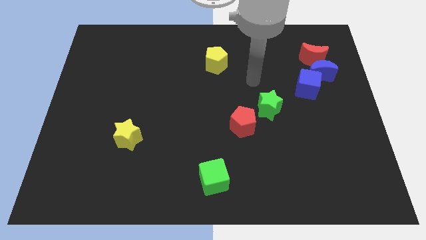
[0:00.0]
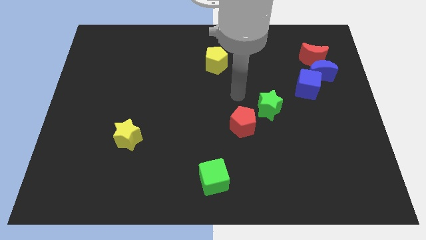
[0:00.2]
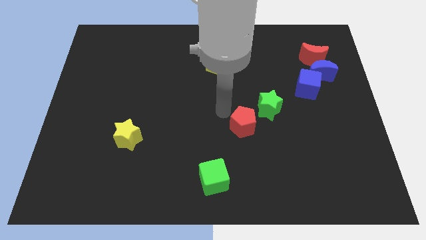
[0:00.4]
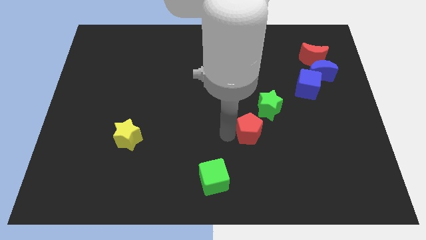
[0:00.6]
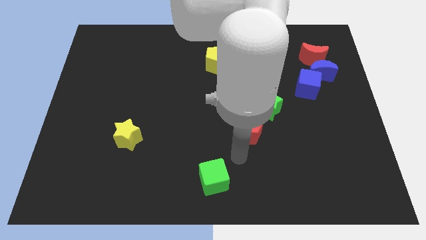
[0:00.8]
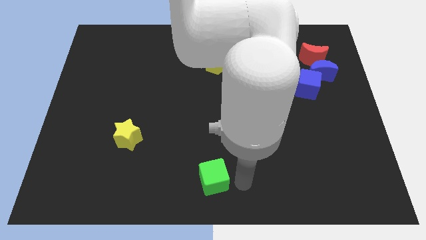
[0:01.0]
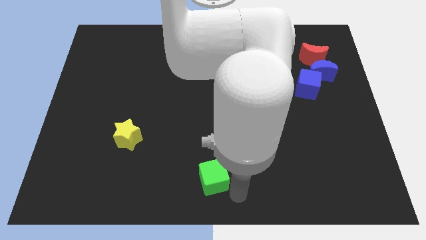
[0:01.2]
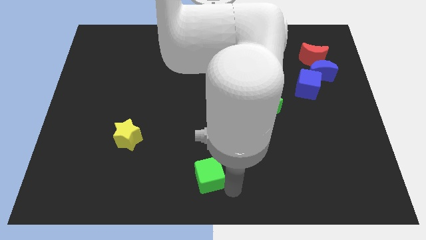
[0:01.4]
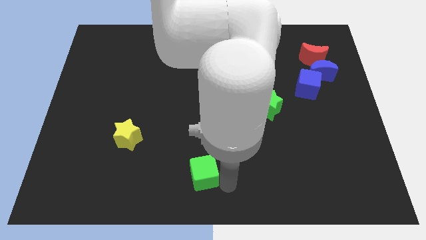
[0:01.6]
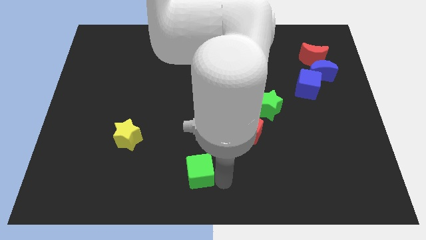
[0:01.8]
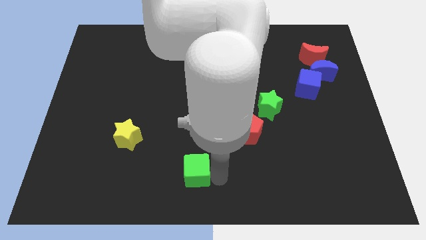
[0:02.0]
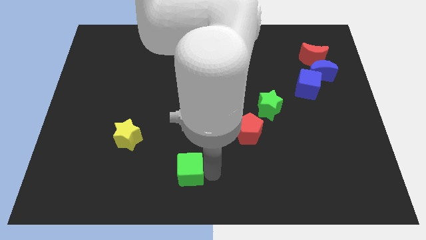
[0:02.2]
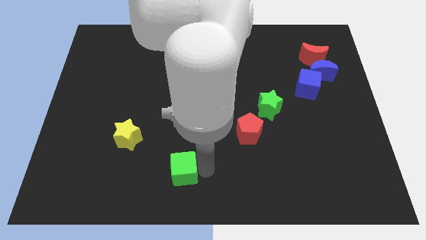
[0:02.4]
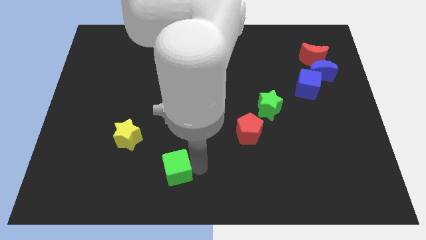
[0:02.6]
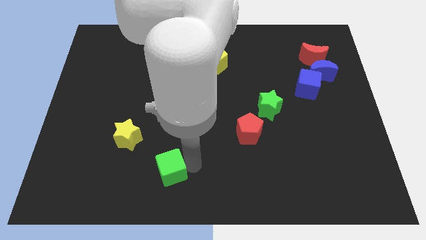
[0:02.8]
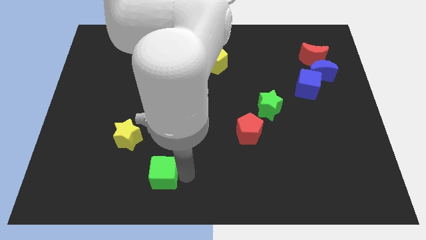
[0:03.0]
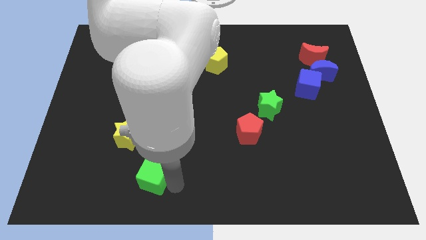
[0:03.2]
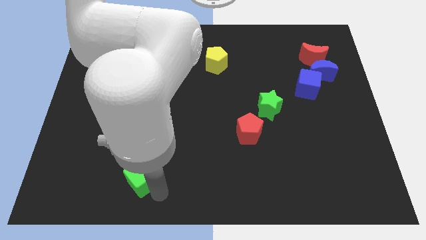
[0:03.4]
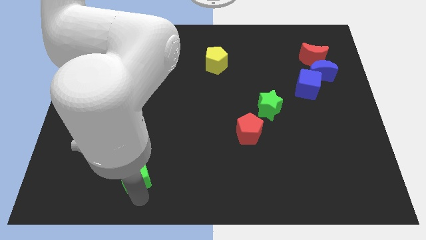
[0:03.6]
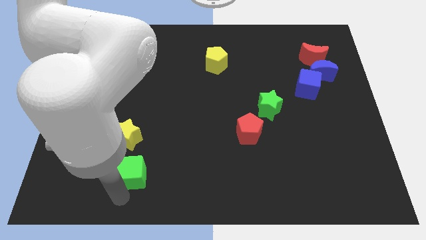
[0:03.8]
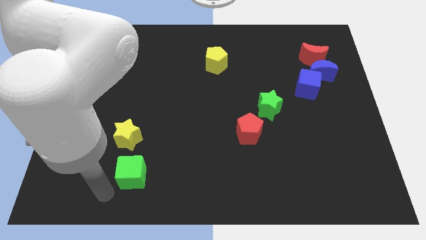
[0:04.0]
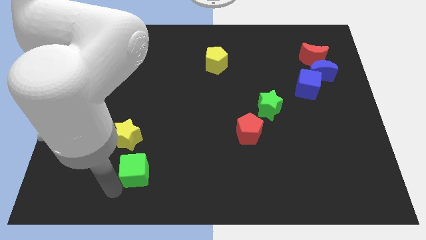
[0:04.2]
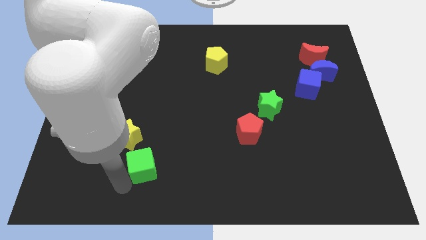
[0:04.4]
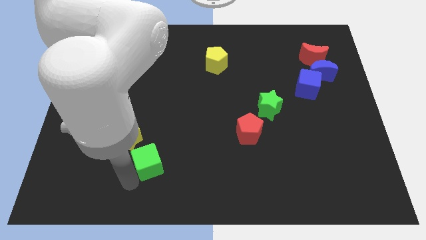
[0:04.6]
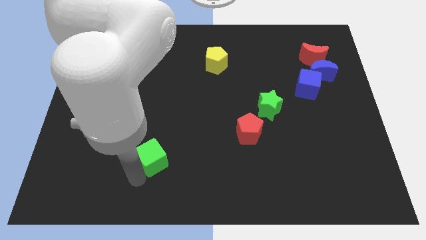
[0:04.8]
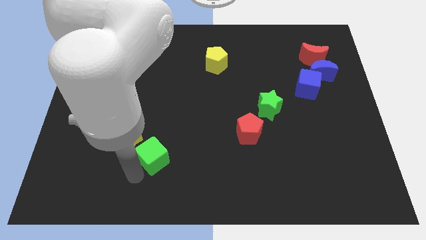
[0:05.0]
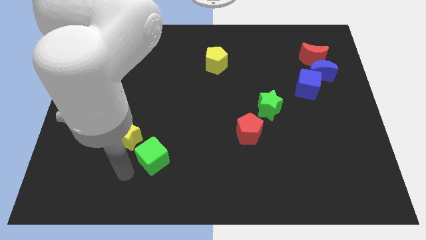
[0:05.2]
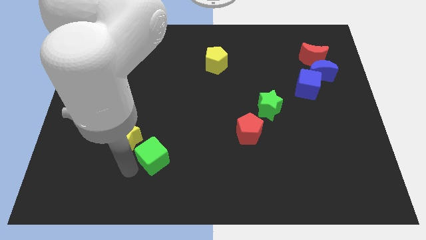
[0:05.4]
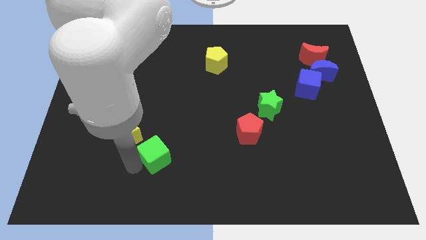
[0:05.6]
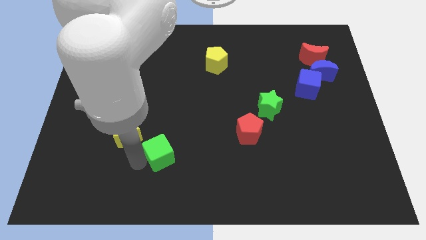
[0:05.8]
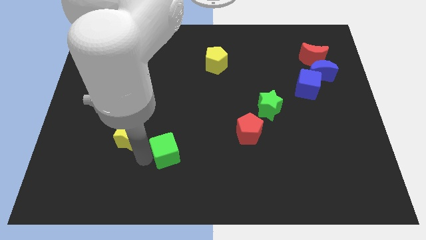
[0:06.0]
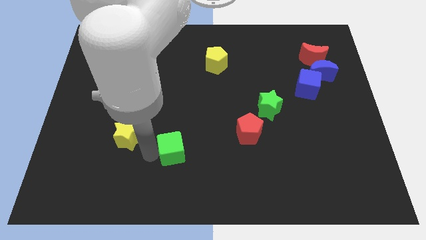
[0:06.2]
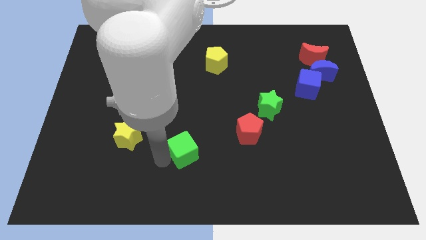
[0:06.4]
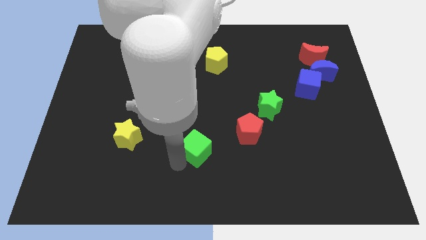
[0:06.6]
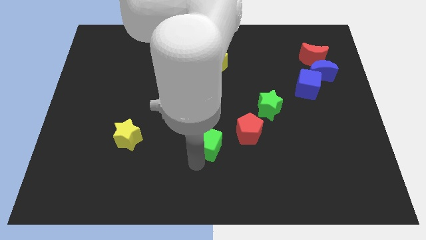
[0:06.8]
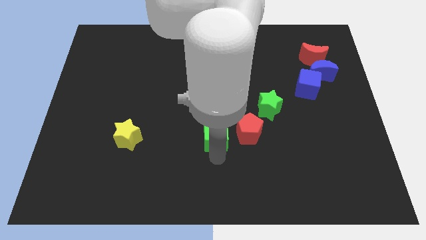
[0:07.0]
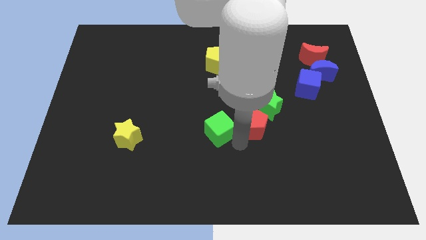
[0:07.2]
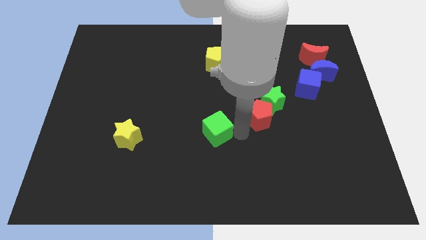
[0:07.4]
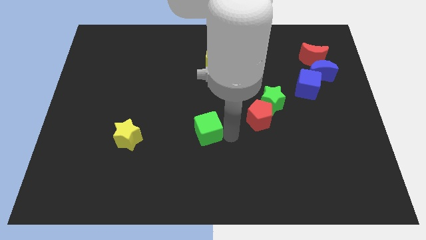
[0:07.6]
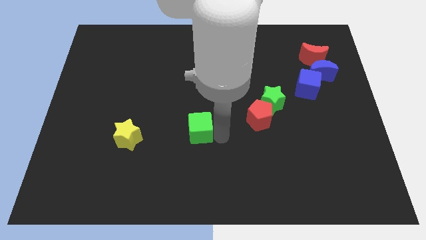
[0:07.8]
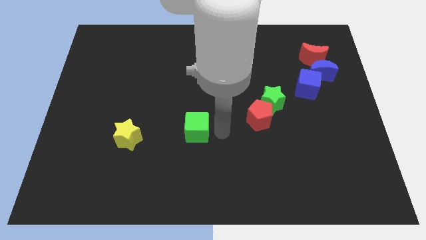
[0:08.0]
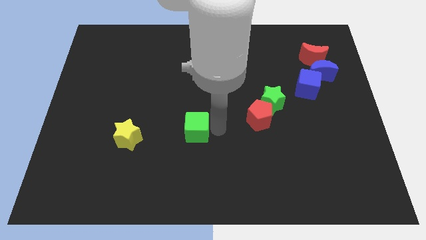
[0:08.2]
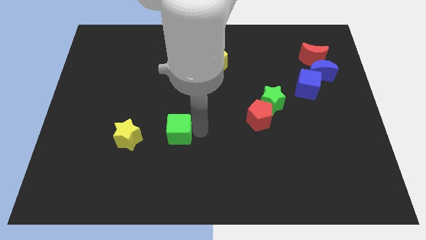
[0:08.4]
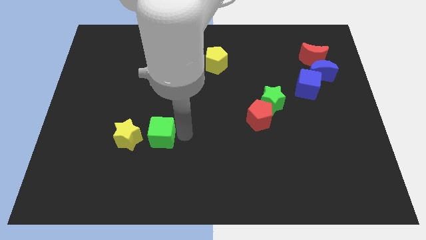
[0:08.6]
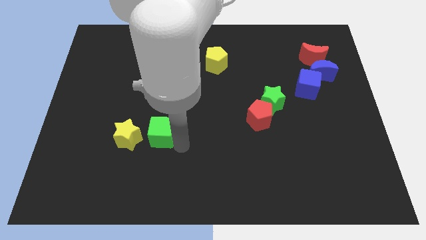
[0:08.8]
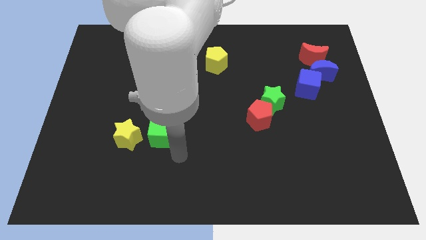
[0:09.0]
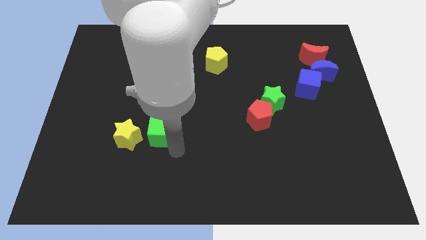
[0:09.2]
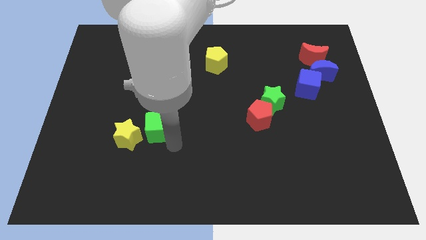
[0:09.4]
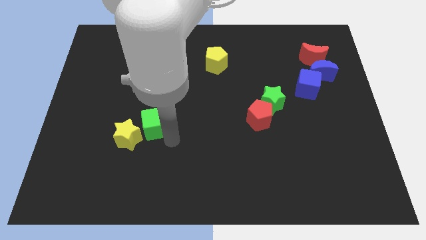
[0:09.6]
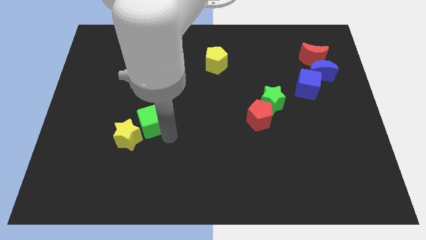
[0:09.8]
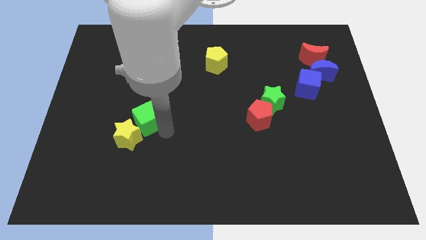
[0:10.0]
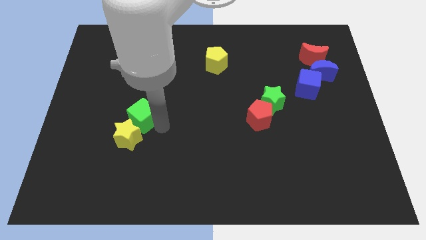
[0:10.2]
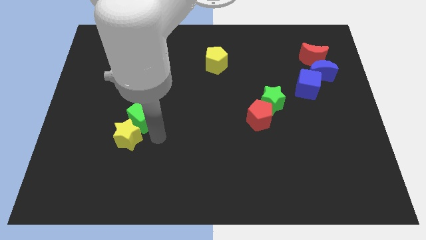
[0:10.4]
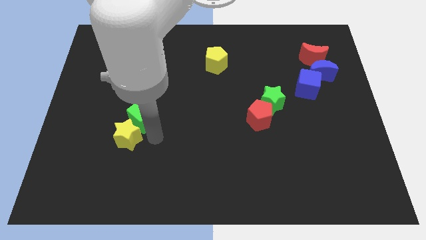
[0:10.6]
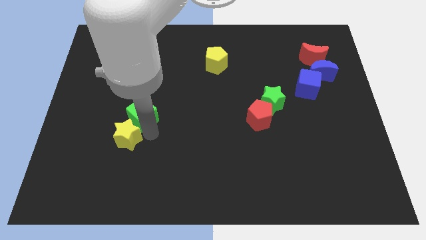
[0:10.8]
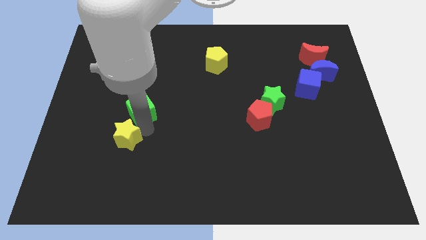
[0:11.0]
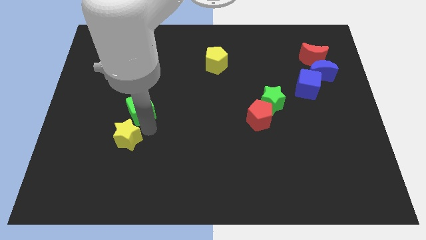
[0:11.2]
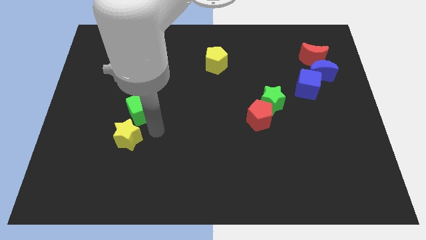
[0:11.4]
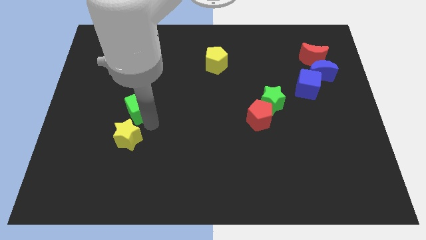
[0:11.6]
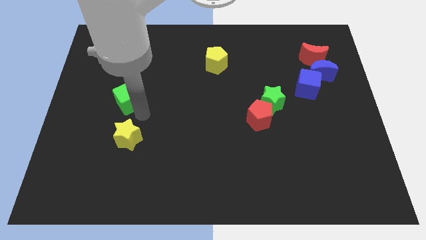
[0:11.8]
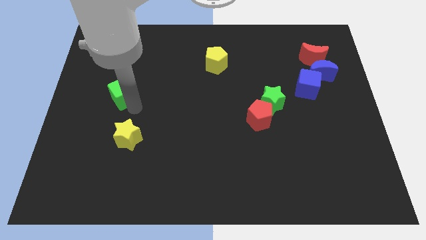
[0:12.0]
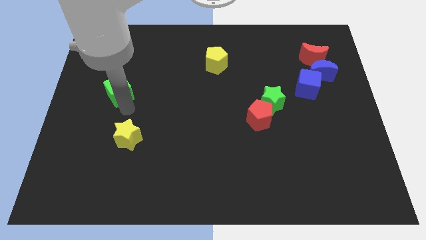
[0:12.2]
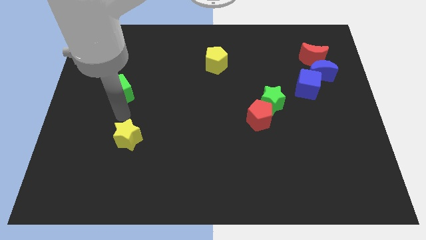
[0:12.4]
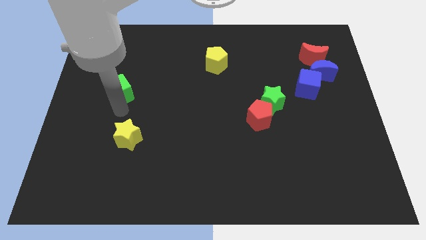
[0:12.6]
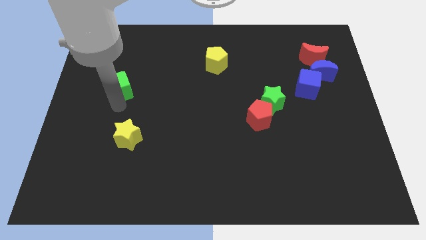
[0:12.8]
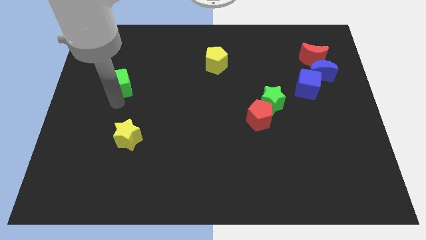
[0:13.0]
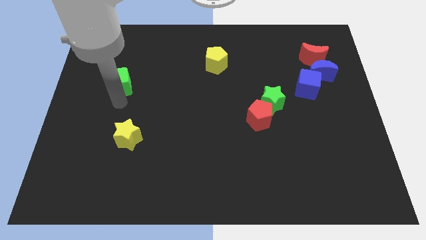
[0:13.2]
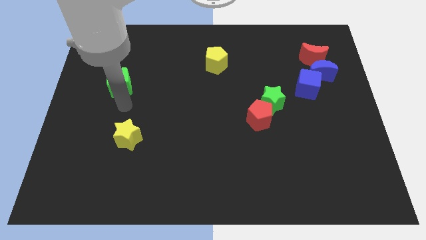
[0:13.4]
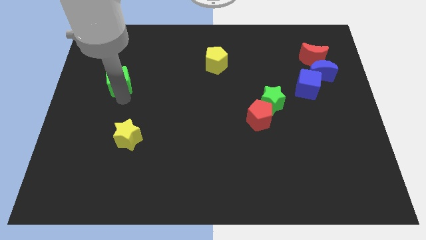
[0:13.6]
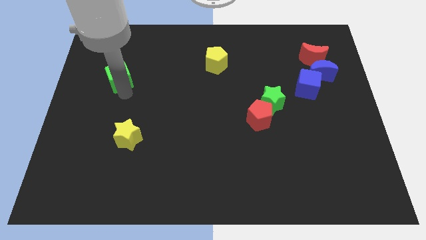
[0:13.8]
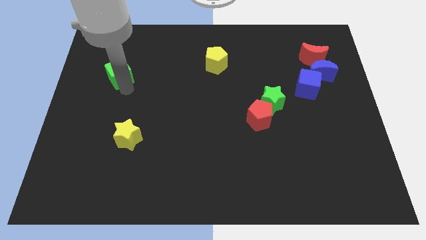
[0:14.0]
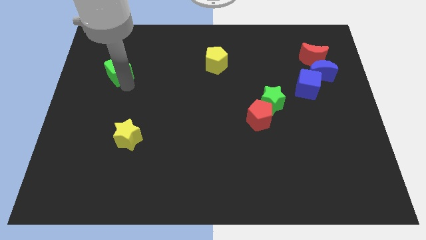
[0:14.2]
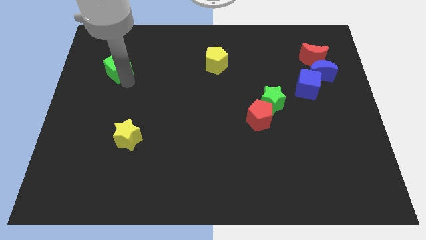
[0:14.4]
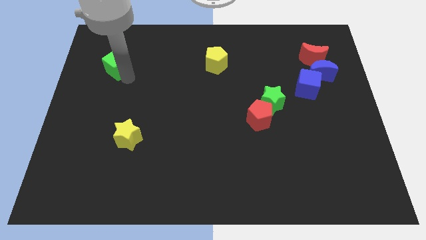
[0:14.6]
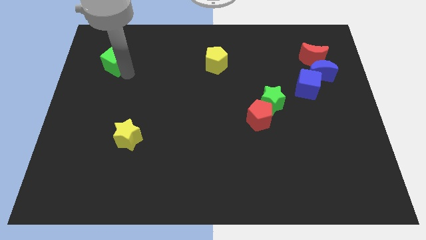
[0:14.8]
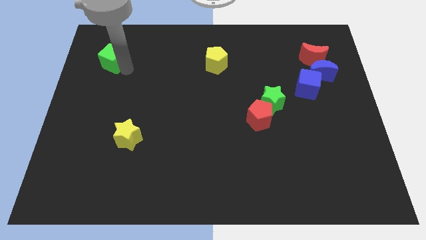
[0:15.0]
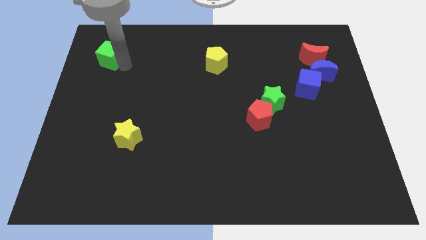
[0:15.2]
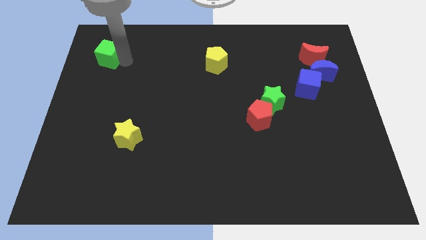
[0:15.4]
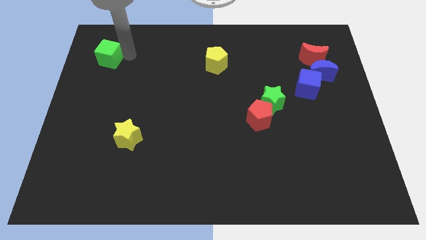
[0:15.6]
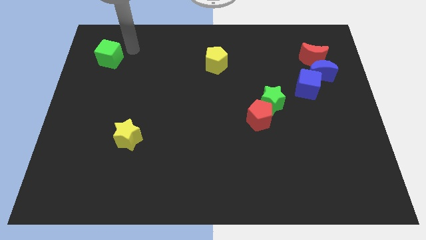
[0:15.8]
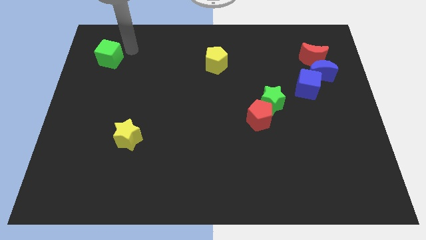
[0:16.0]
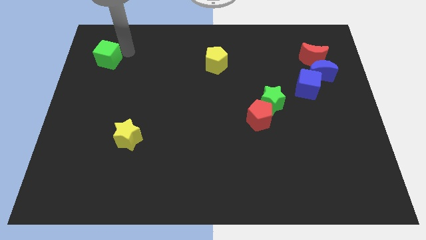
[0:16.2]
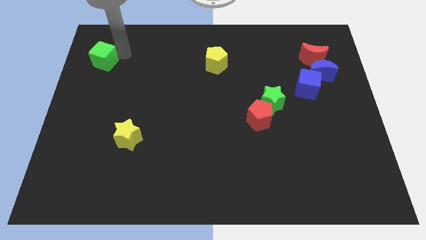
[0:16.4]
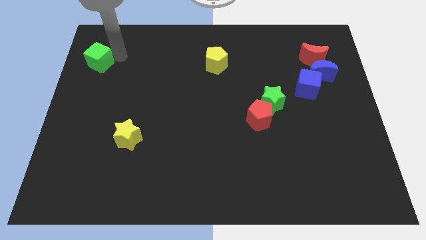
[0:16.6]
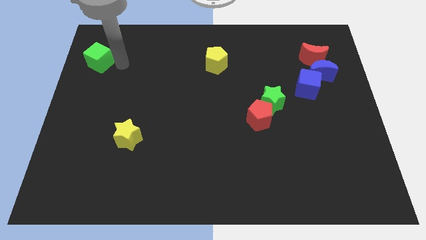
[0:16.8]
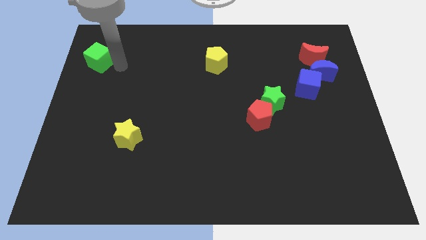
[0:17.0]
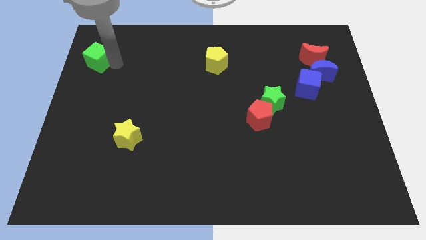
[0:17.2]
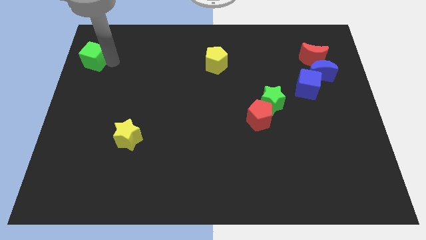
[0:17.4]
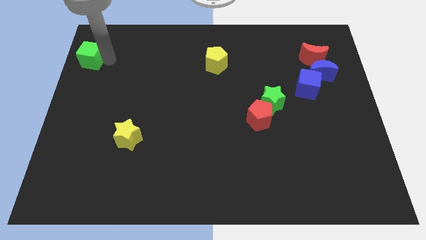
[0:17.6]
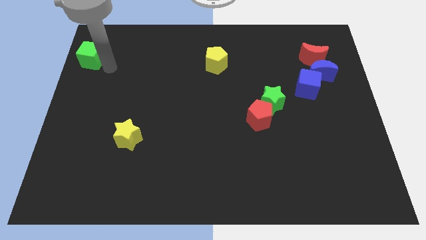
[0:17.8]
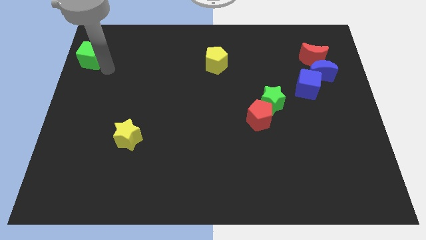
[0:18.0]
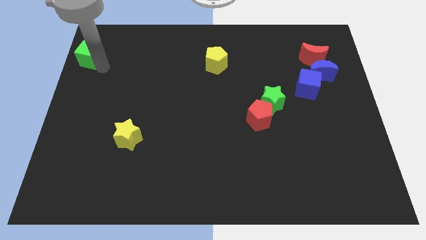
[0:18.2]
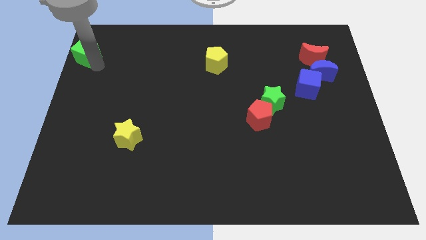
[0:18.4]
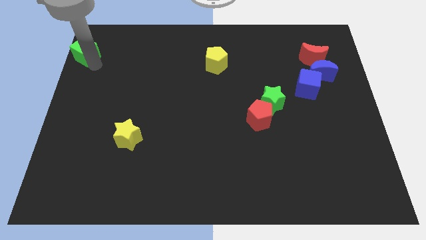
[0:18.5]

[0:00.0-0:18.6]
slide the green cube to the top left of the board
